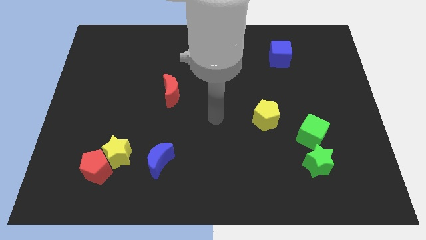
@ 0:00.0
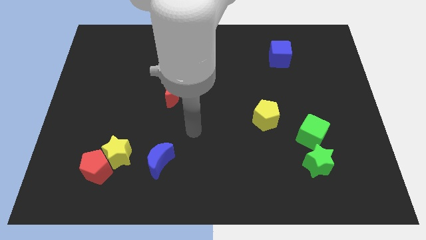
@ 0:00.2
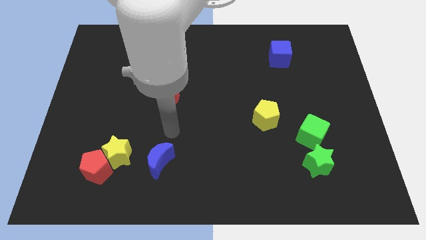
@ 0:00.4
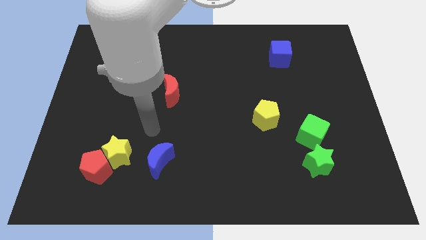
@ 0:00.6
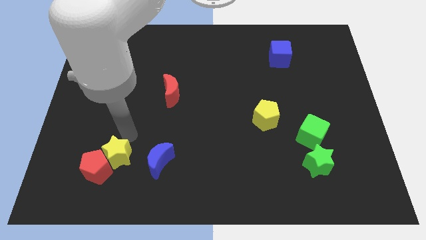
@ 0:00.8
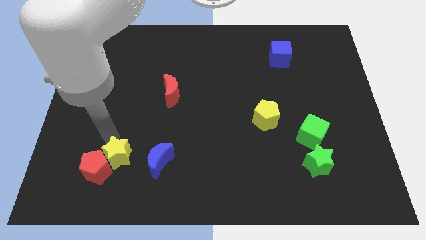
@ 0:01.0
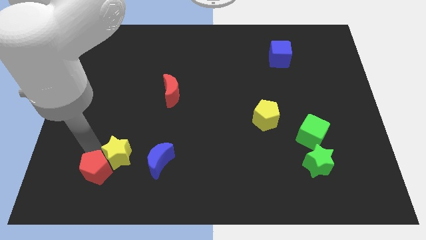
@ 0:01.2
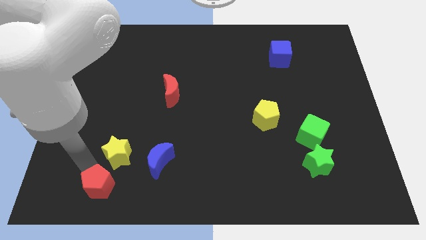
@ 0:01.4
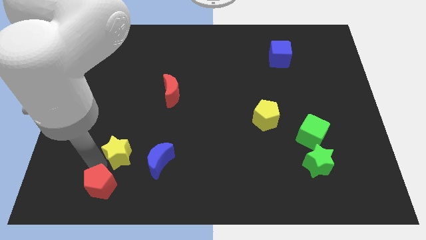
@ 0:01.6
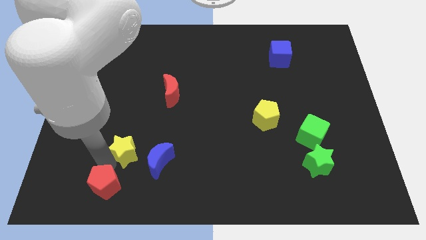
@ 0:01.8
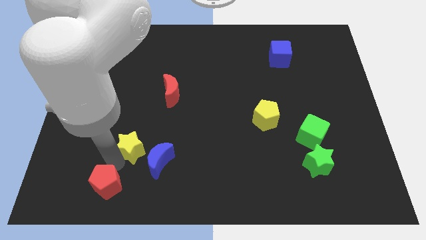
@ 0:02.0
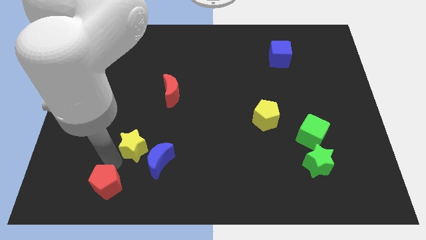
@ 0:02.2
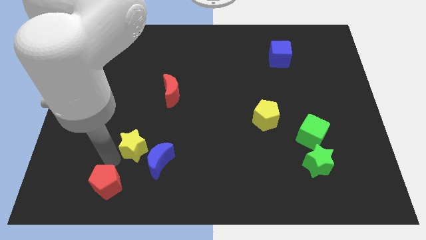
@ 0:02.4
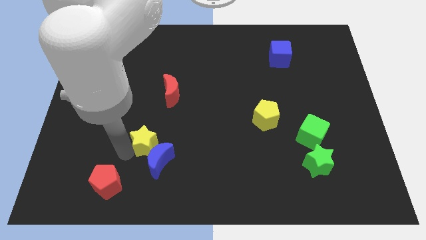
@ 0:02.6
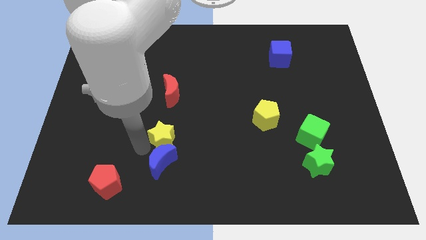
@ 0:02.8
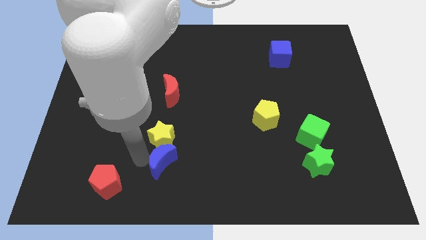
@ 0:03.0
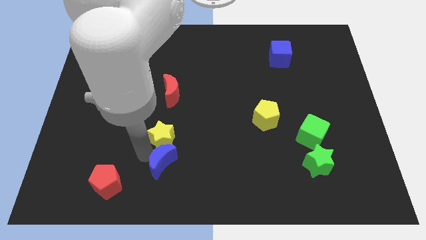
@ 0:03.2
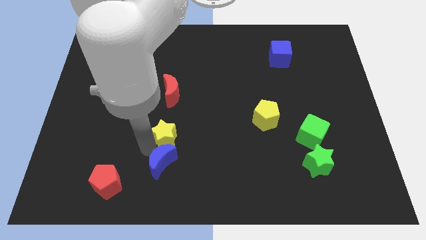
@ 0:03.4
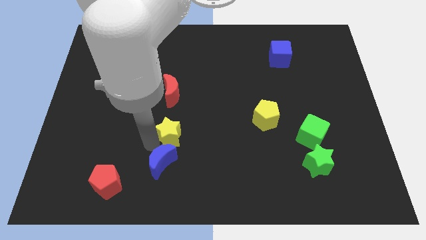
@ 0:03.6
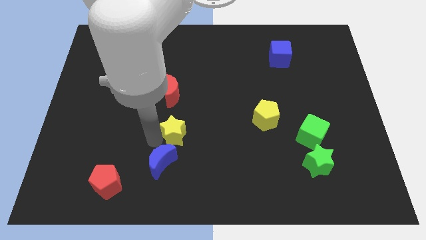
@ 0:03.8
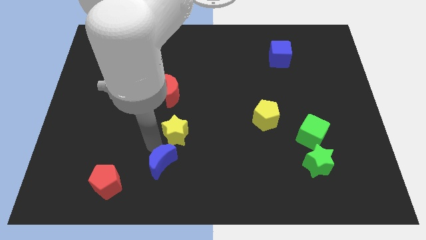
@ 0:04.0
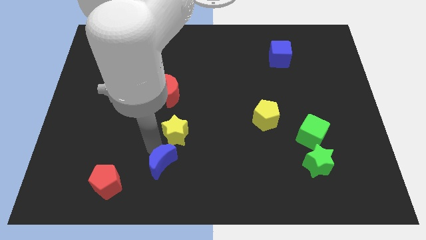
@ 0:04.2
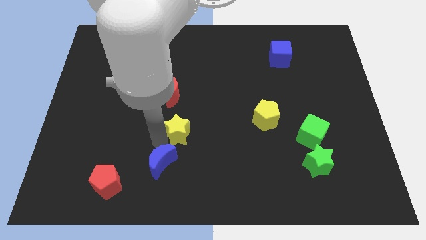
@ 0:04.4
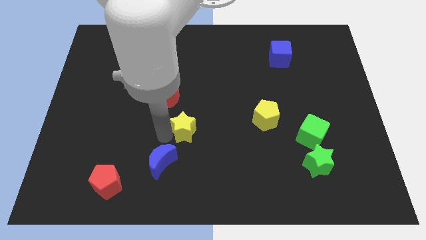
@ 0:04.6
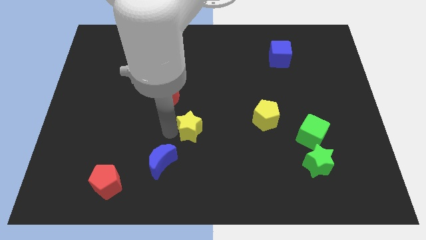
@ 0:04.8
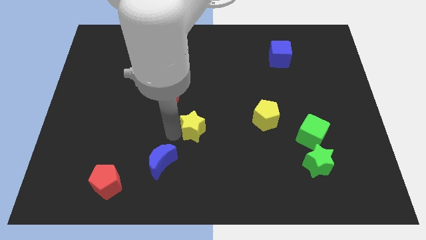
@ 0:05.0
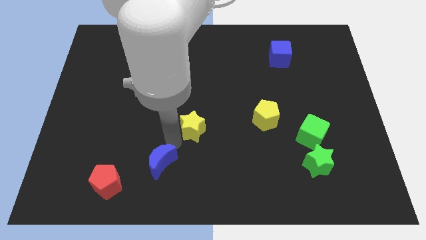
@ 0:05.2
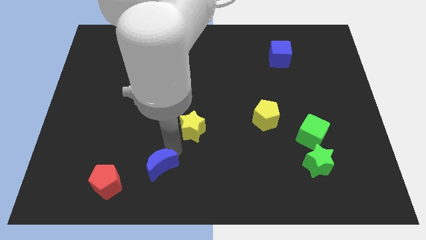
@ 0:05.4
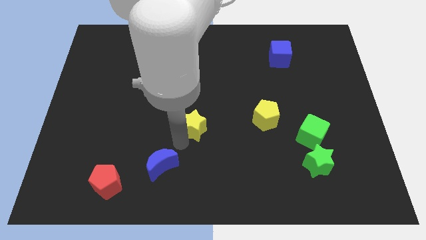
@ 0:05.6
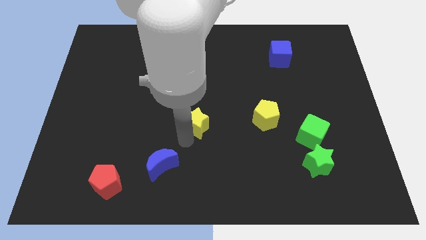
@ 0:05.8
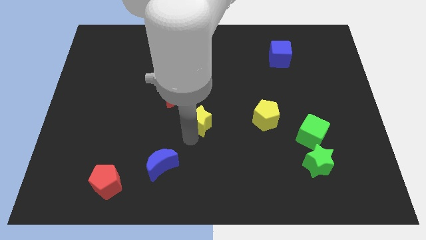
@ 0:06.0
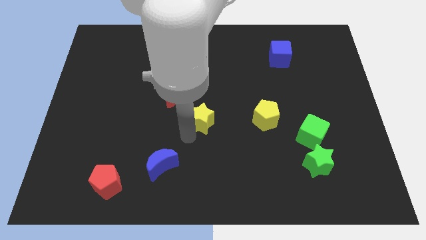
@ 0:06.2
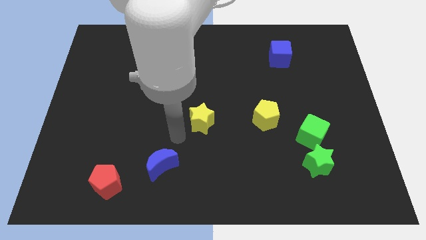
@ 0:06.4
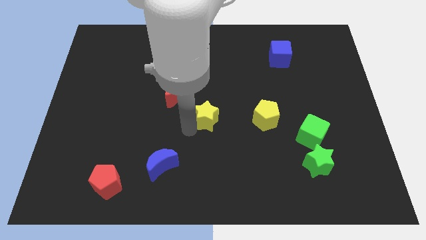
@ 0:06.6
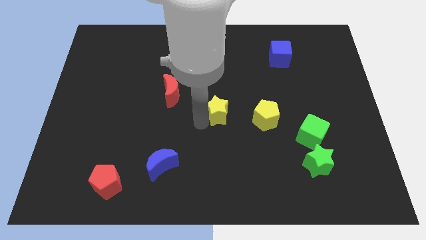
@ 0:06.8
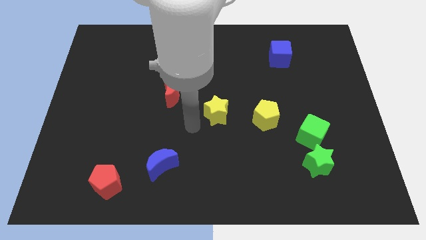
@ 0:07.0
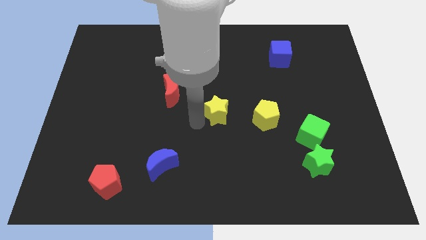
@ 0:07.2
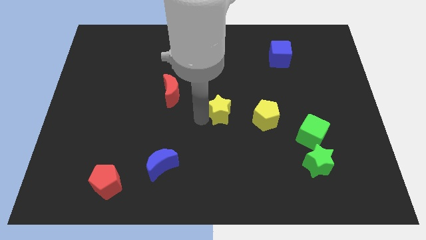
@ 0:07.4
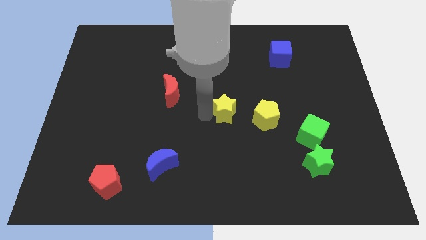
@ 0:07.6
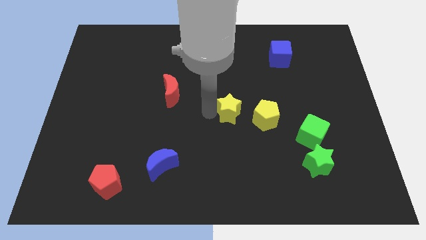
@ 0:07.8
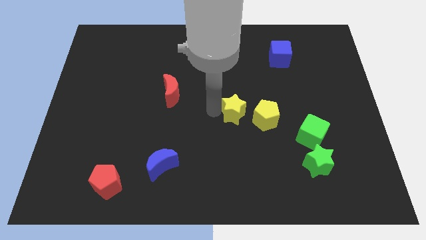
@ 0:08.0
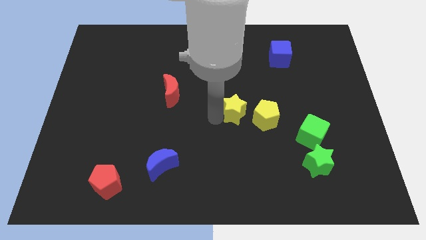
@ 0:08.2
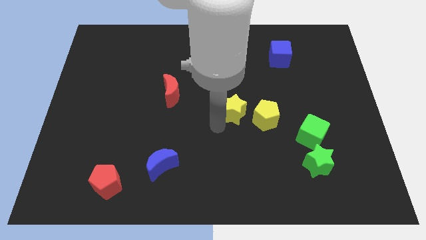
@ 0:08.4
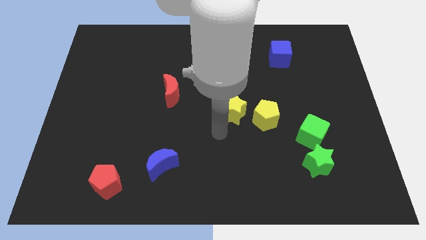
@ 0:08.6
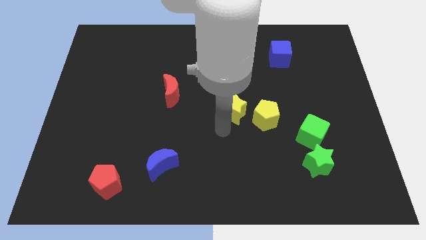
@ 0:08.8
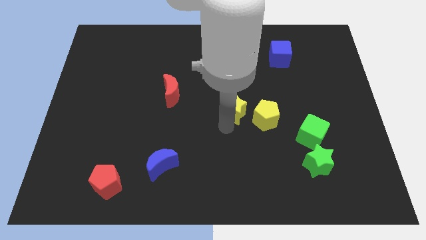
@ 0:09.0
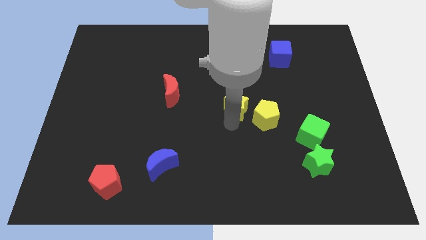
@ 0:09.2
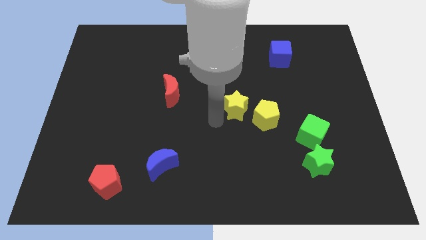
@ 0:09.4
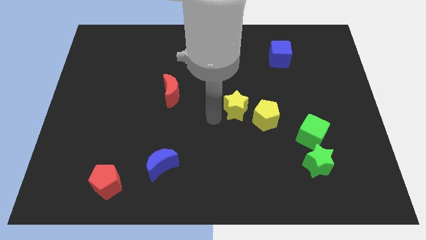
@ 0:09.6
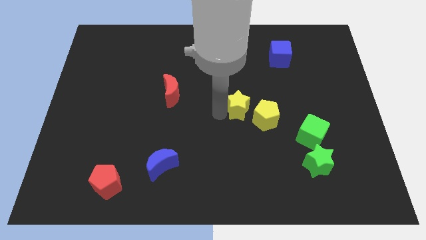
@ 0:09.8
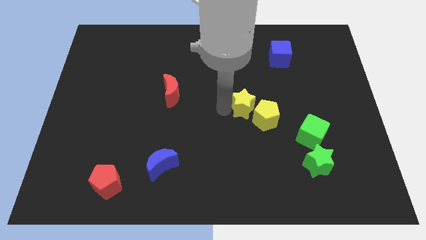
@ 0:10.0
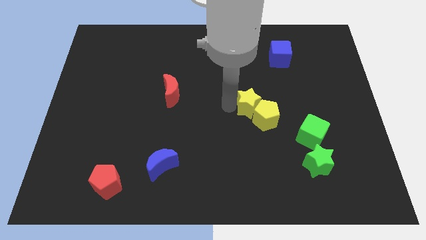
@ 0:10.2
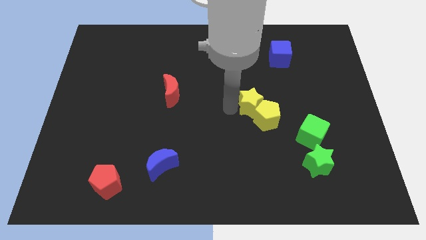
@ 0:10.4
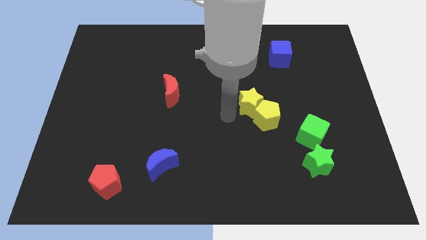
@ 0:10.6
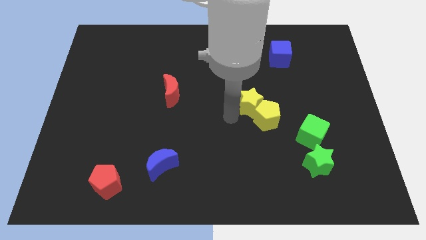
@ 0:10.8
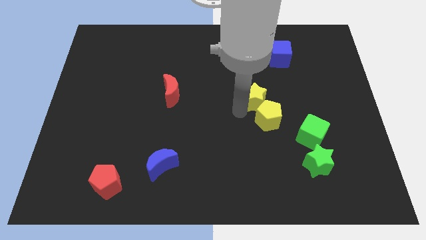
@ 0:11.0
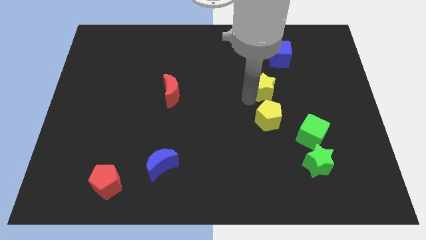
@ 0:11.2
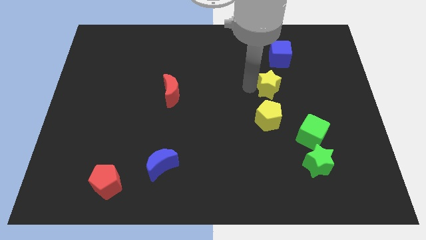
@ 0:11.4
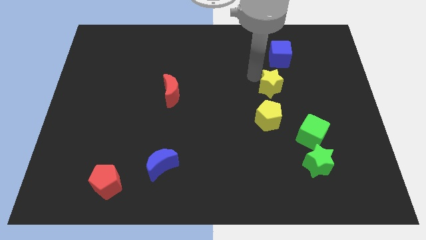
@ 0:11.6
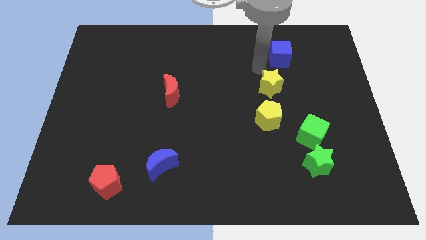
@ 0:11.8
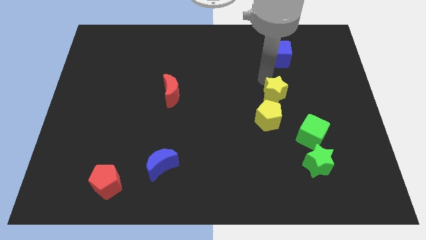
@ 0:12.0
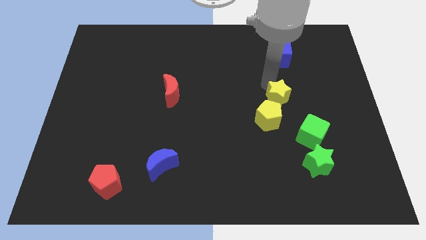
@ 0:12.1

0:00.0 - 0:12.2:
slide the yellow star to the top left side of the green cube

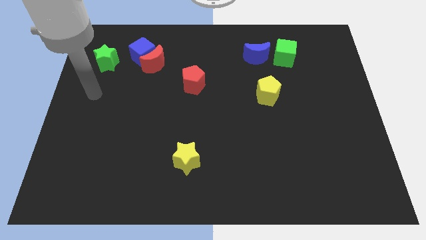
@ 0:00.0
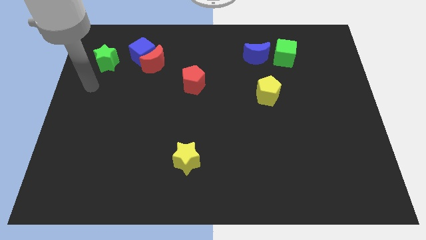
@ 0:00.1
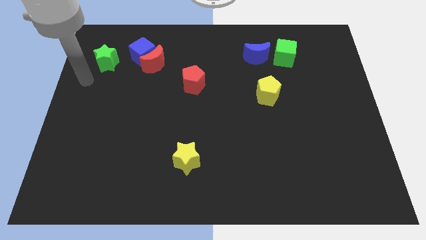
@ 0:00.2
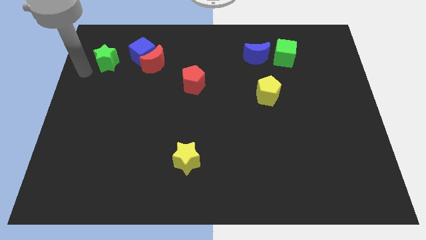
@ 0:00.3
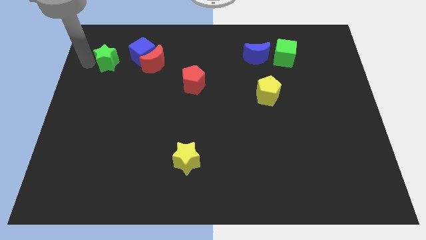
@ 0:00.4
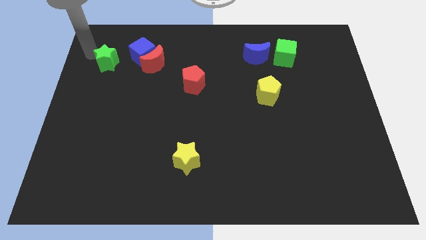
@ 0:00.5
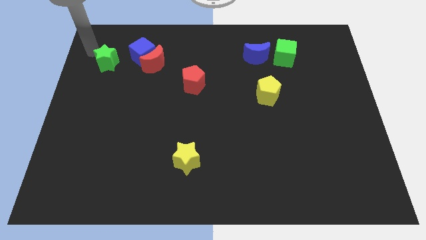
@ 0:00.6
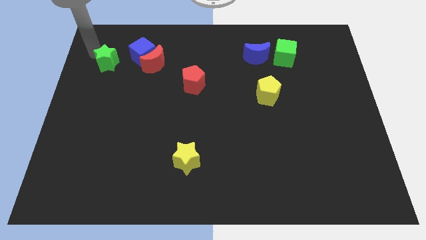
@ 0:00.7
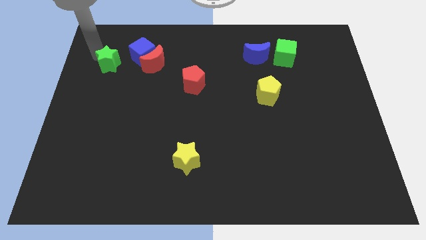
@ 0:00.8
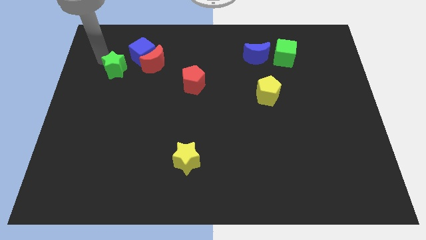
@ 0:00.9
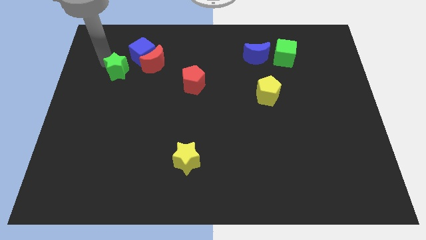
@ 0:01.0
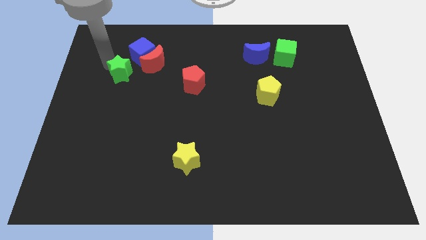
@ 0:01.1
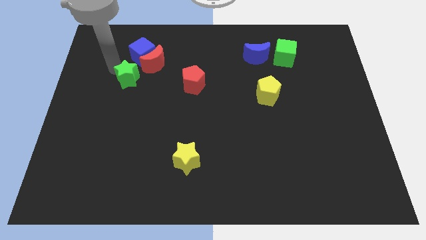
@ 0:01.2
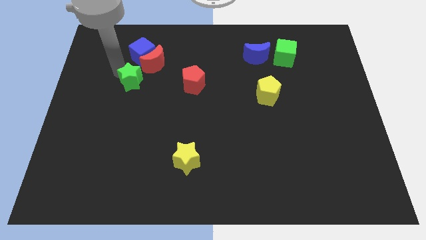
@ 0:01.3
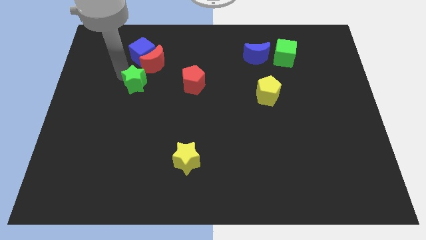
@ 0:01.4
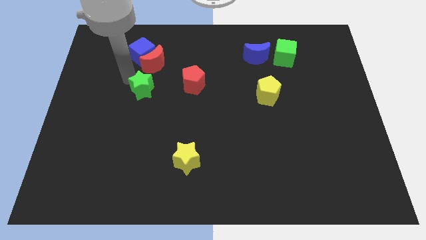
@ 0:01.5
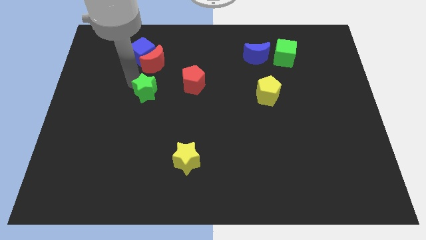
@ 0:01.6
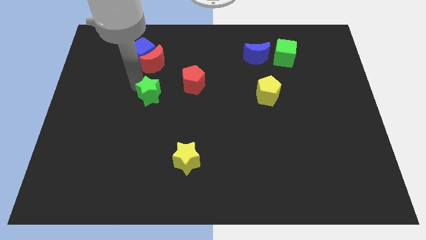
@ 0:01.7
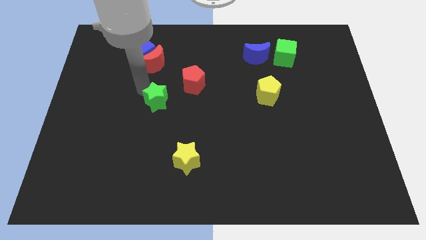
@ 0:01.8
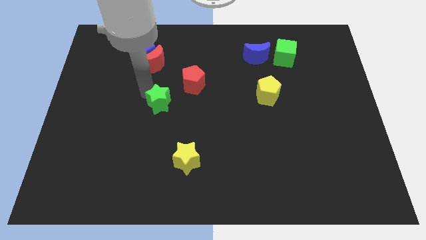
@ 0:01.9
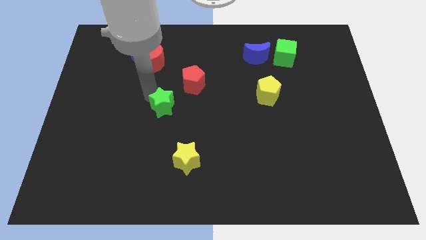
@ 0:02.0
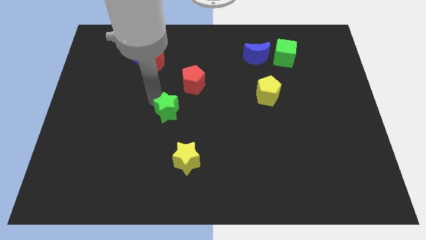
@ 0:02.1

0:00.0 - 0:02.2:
move the green star to the top of the yellow star
